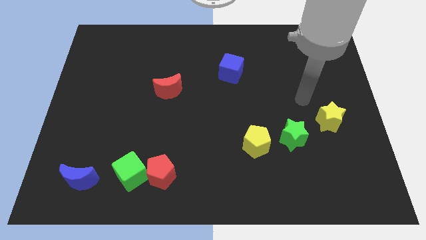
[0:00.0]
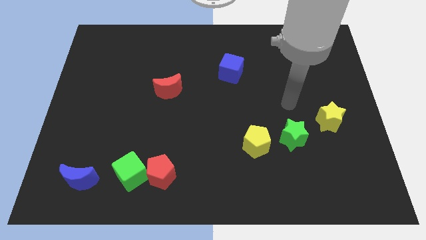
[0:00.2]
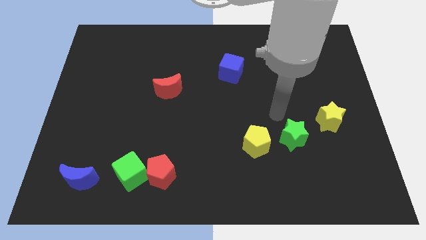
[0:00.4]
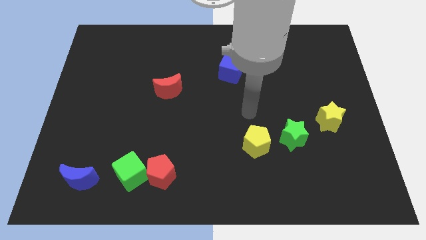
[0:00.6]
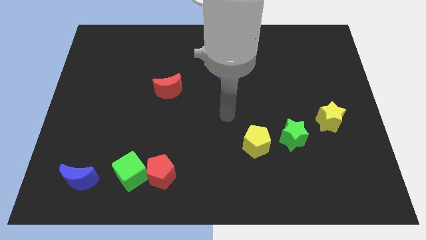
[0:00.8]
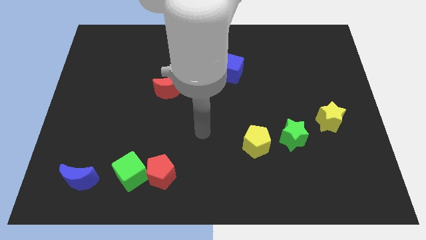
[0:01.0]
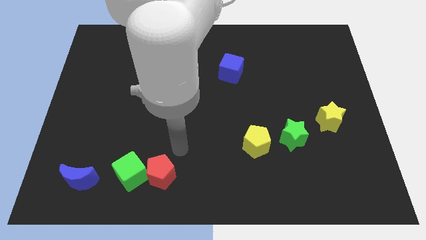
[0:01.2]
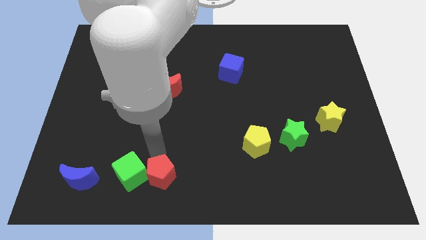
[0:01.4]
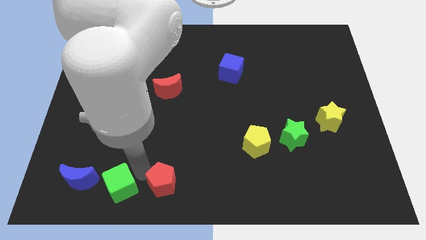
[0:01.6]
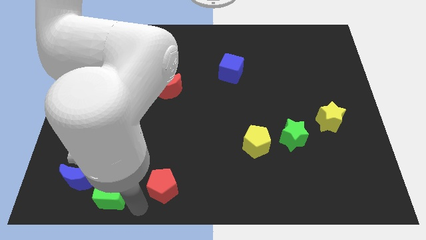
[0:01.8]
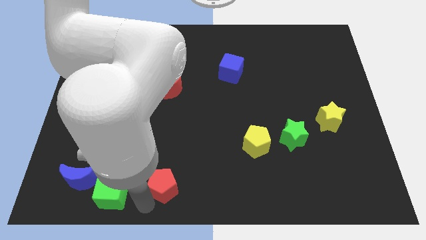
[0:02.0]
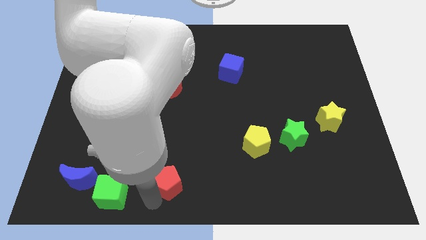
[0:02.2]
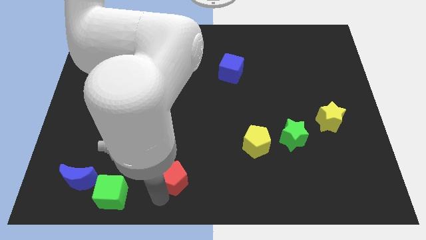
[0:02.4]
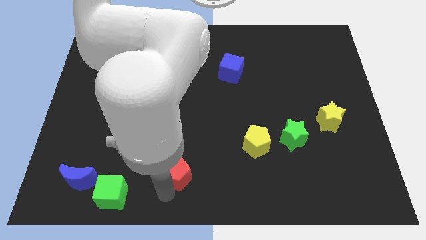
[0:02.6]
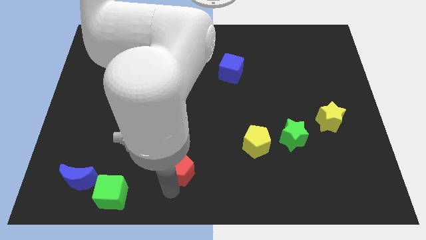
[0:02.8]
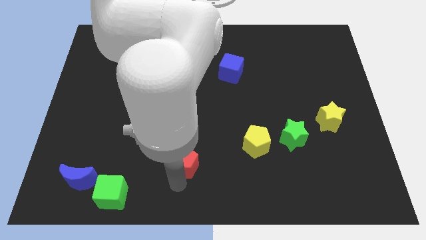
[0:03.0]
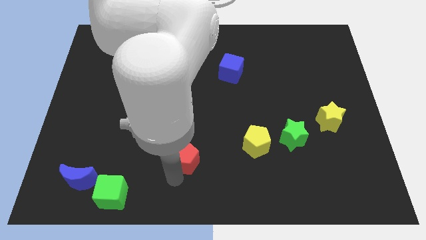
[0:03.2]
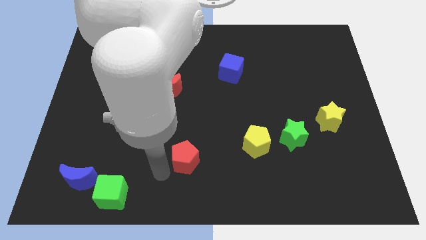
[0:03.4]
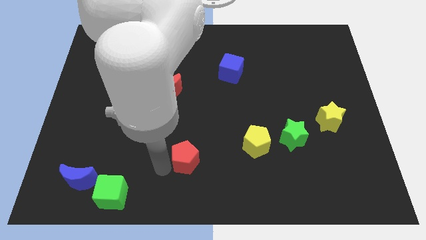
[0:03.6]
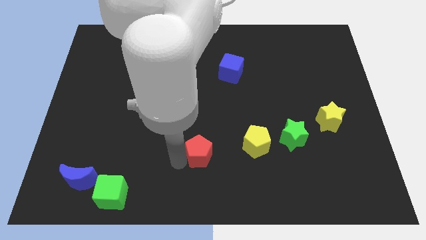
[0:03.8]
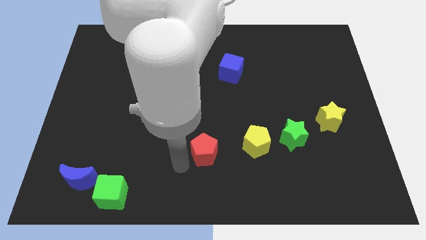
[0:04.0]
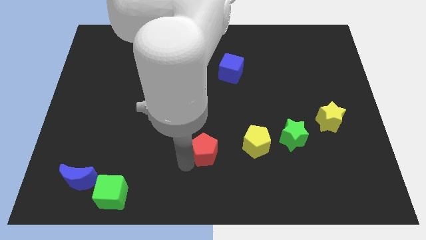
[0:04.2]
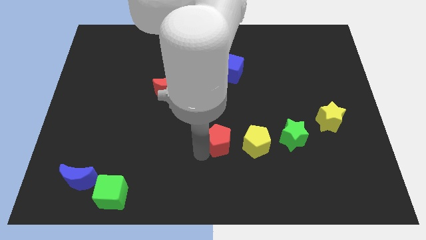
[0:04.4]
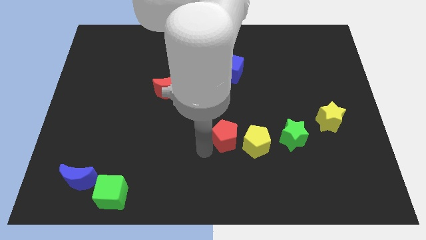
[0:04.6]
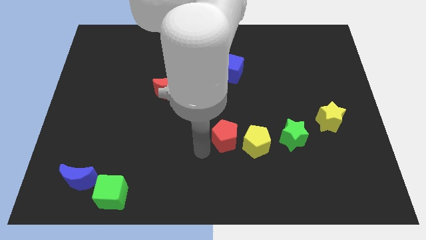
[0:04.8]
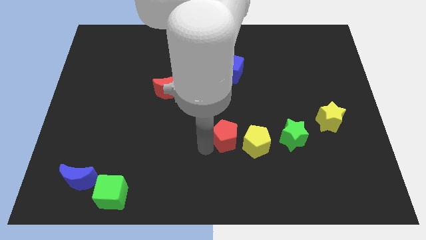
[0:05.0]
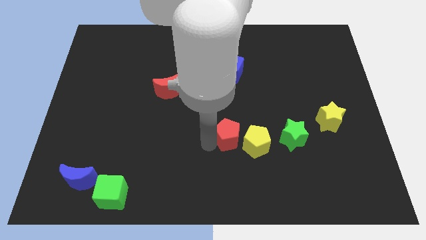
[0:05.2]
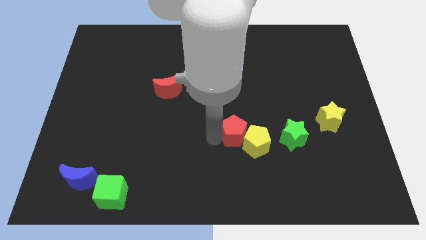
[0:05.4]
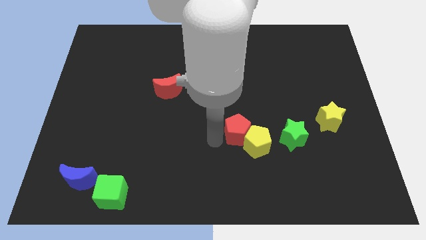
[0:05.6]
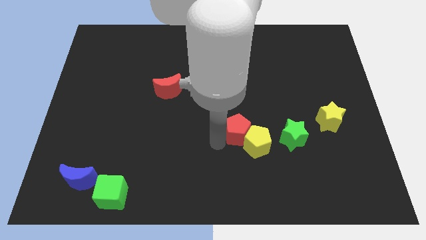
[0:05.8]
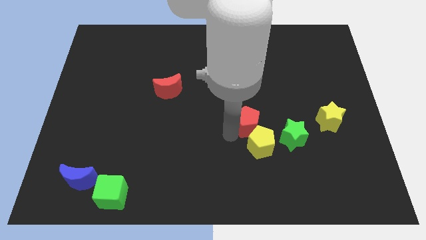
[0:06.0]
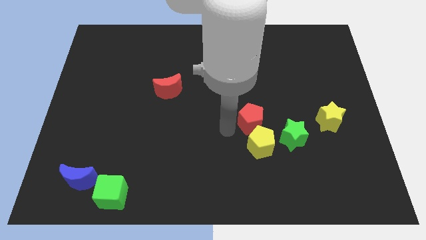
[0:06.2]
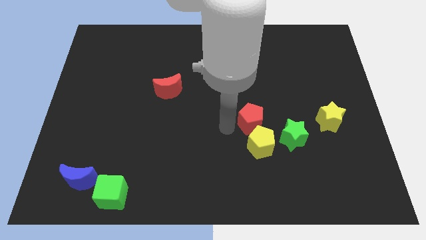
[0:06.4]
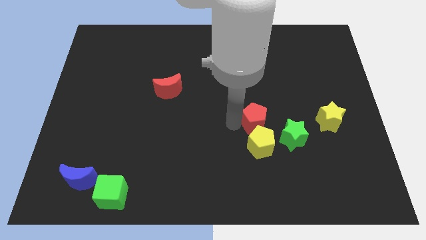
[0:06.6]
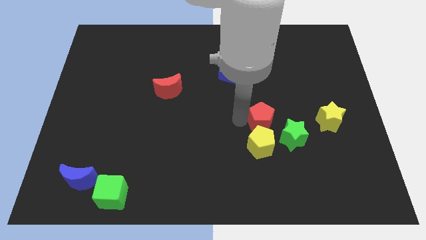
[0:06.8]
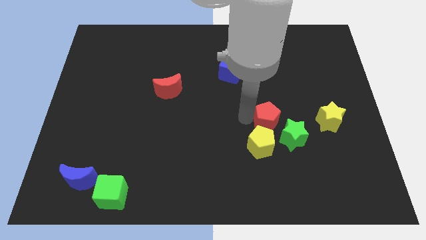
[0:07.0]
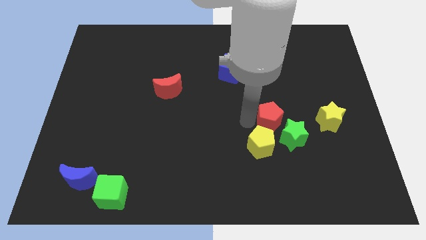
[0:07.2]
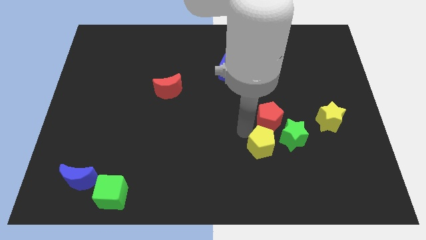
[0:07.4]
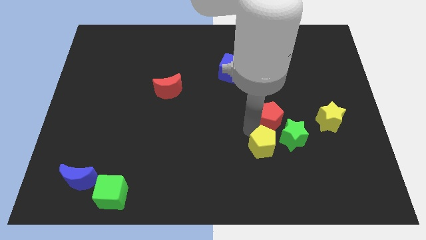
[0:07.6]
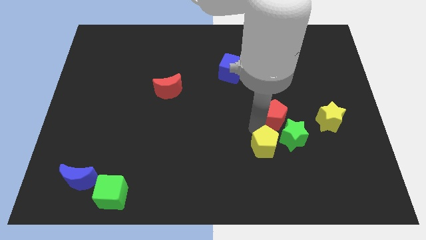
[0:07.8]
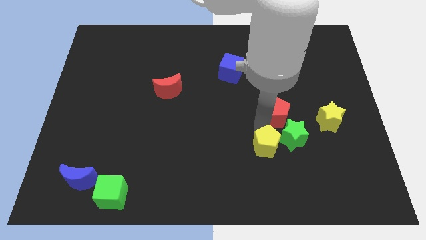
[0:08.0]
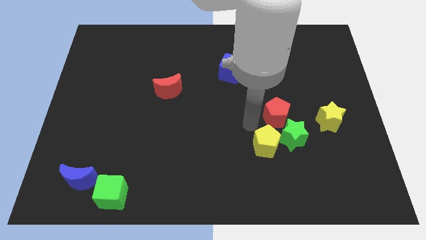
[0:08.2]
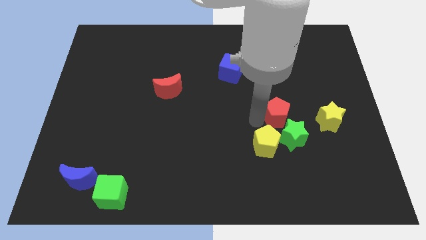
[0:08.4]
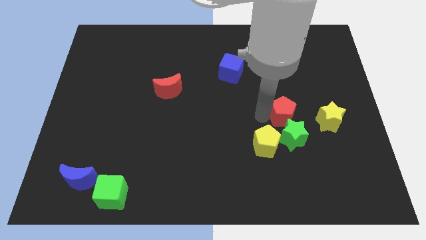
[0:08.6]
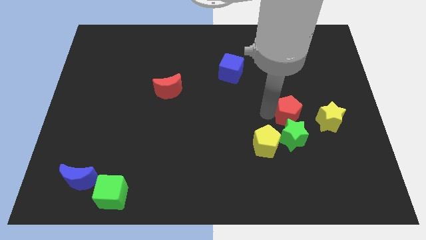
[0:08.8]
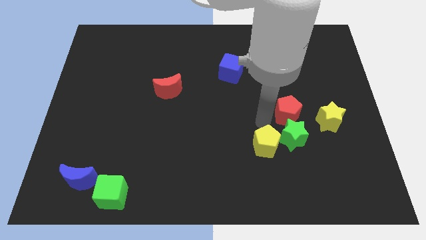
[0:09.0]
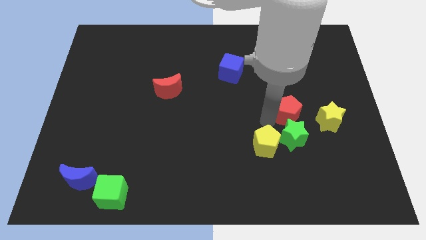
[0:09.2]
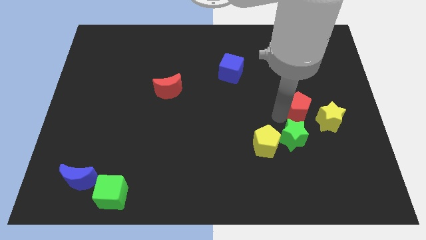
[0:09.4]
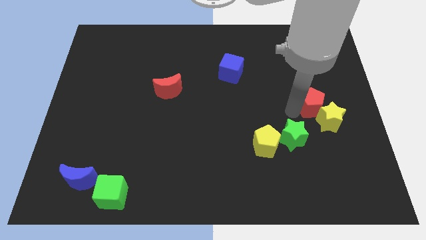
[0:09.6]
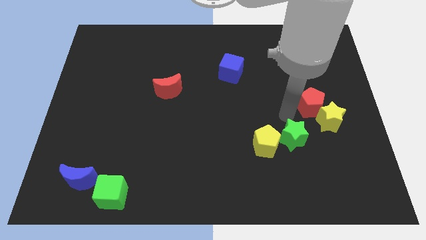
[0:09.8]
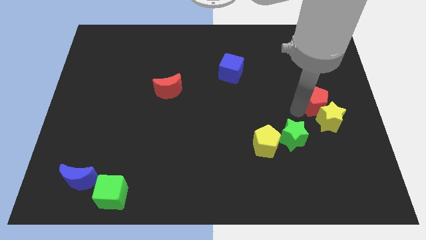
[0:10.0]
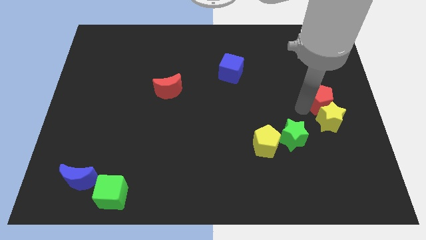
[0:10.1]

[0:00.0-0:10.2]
put the red pentagon to the right side

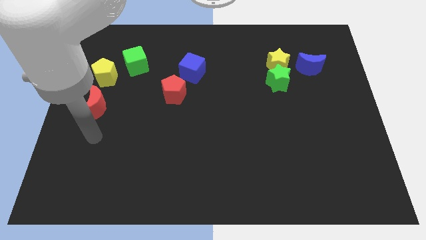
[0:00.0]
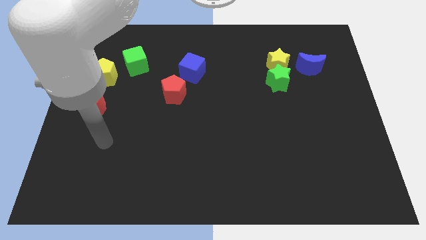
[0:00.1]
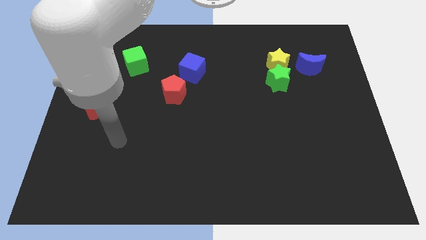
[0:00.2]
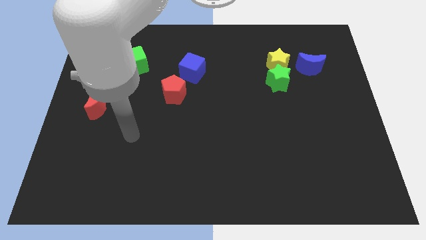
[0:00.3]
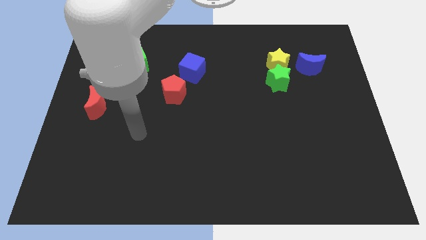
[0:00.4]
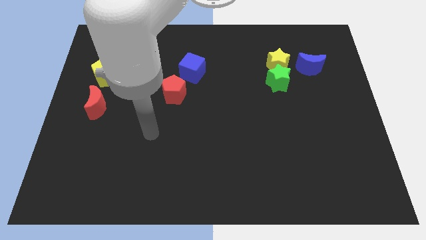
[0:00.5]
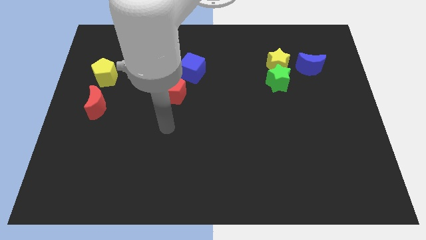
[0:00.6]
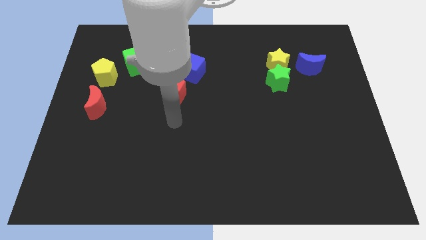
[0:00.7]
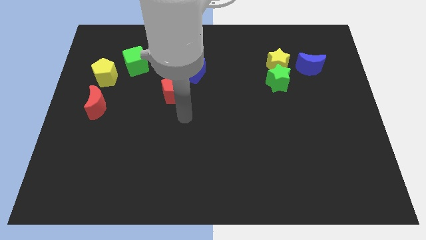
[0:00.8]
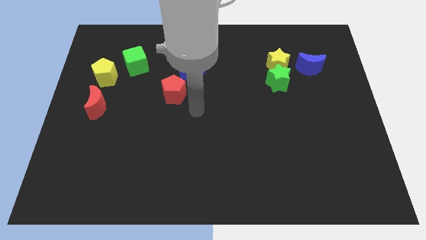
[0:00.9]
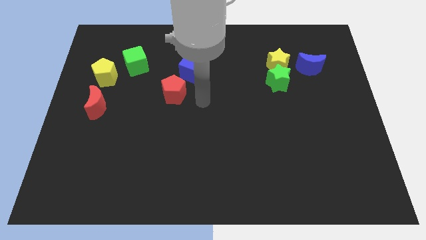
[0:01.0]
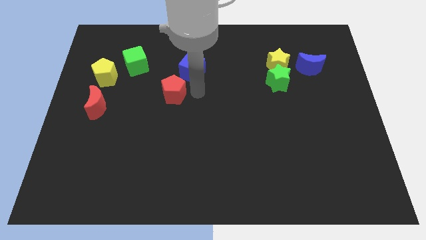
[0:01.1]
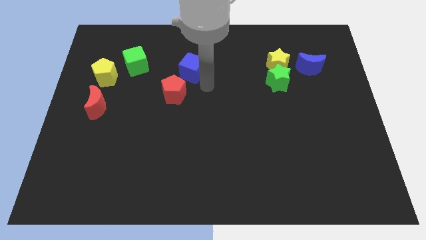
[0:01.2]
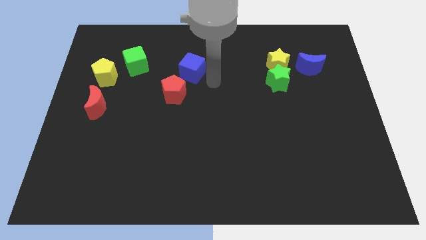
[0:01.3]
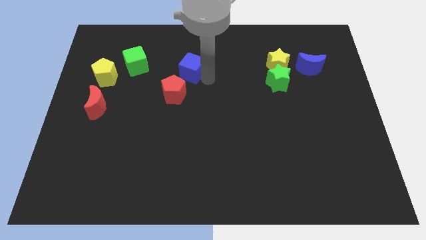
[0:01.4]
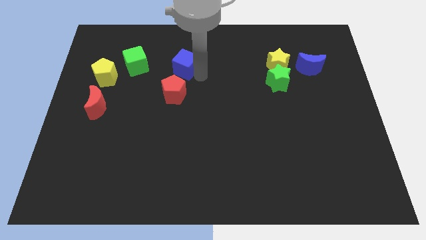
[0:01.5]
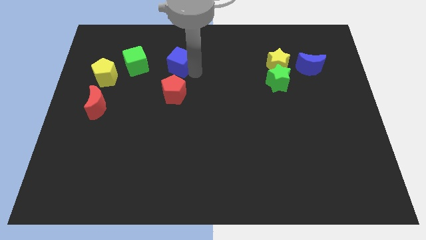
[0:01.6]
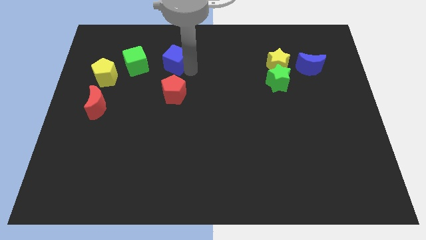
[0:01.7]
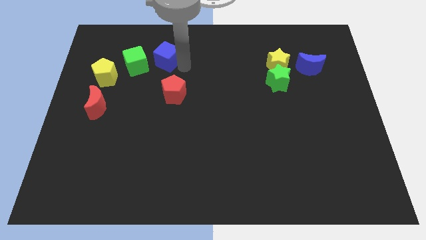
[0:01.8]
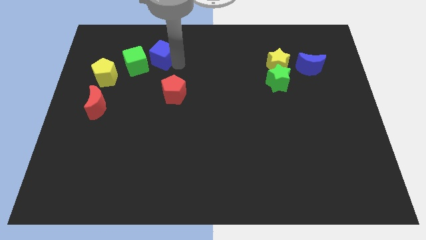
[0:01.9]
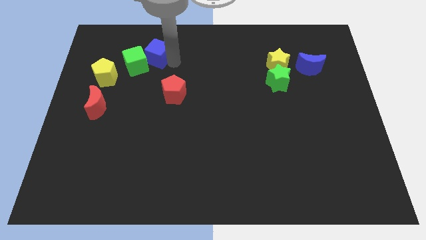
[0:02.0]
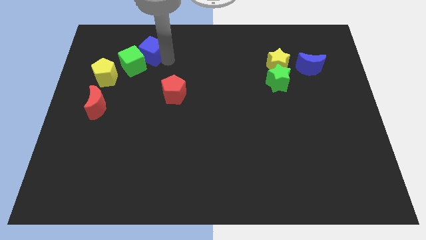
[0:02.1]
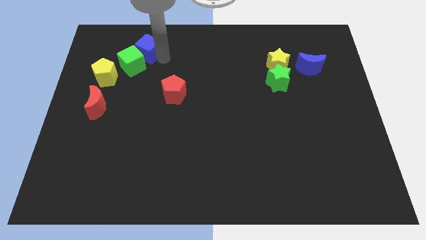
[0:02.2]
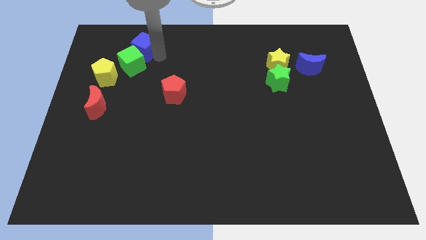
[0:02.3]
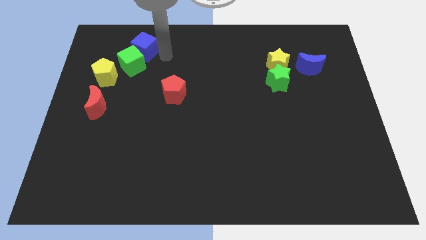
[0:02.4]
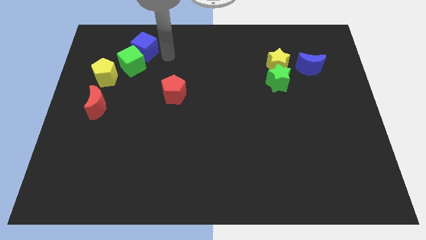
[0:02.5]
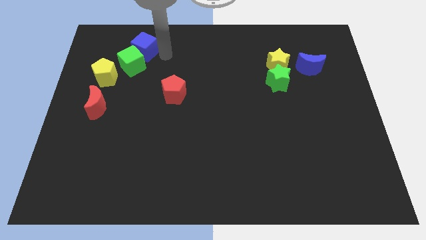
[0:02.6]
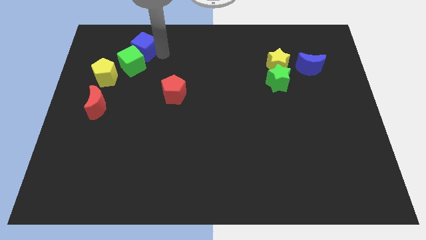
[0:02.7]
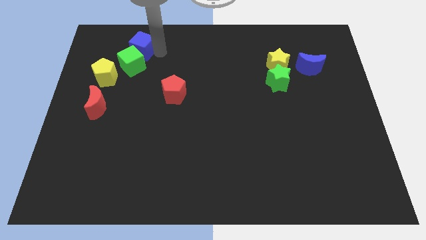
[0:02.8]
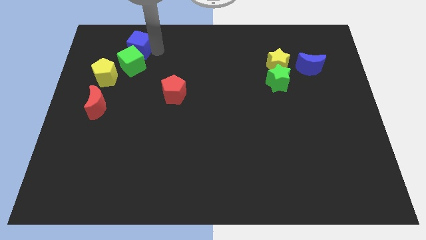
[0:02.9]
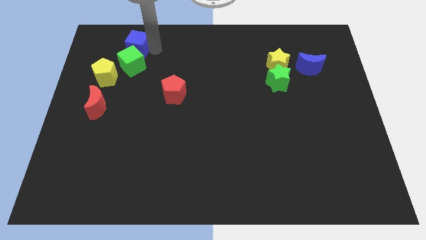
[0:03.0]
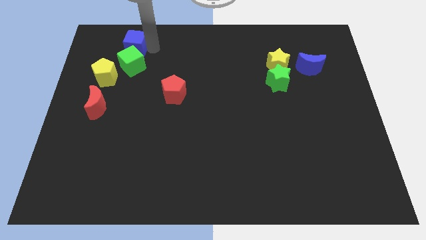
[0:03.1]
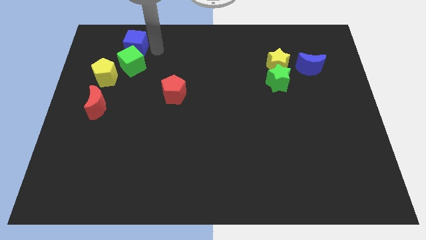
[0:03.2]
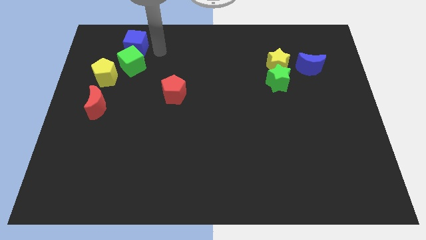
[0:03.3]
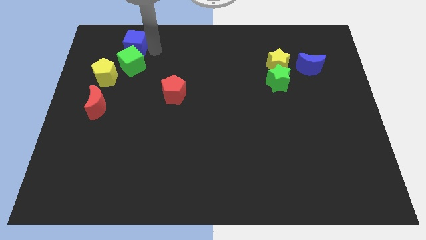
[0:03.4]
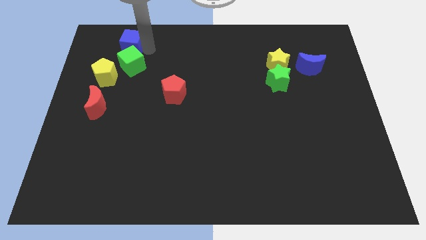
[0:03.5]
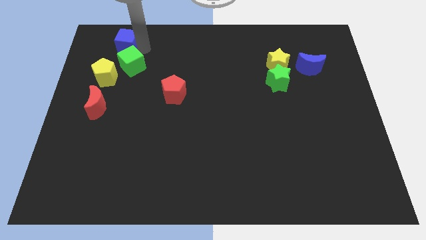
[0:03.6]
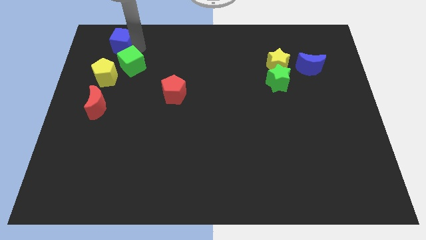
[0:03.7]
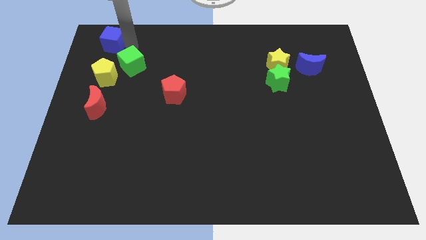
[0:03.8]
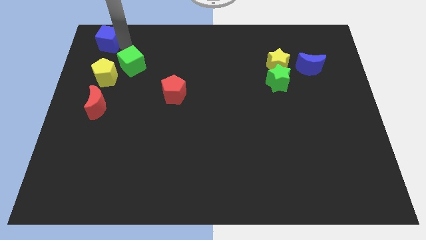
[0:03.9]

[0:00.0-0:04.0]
push the blue cube to the top left corner
